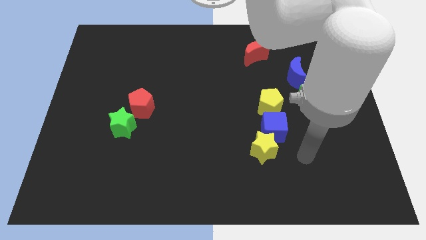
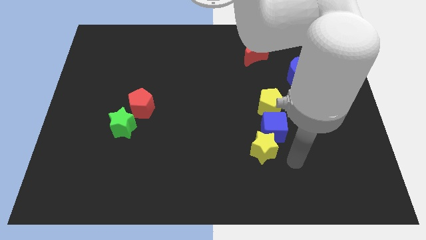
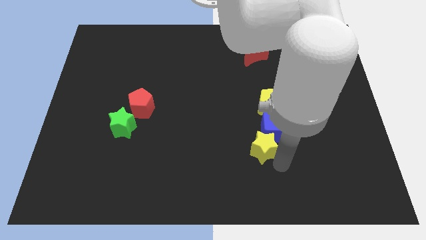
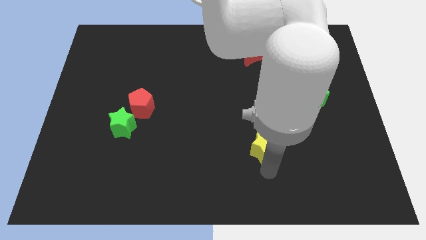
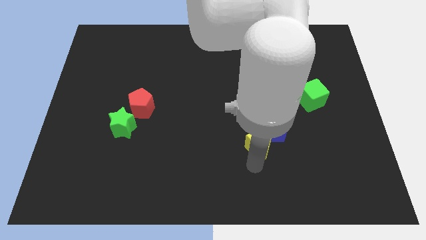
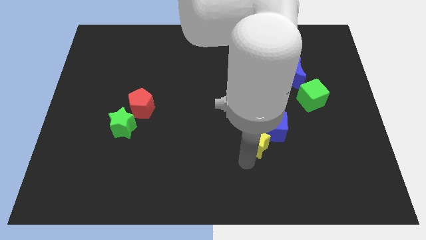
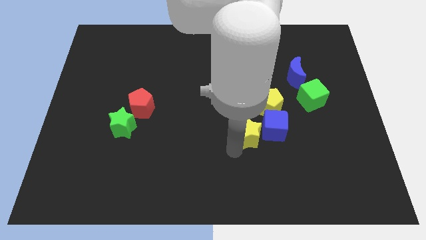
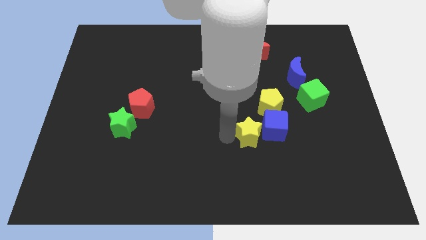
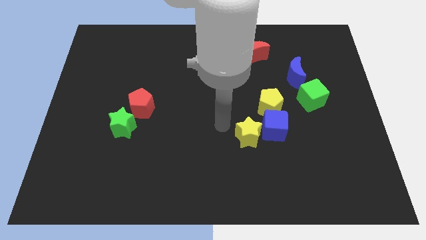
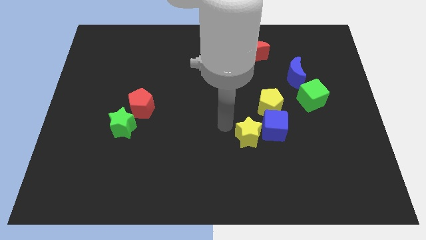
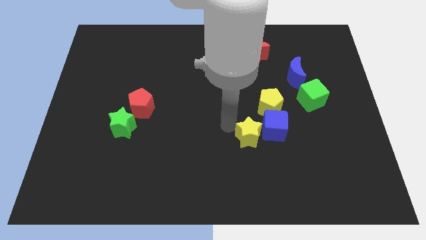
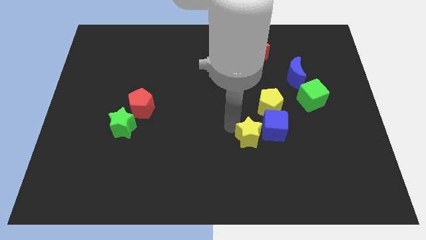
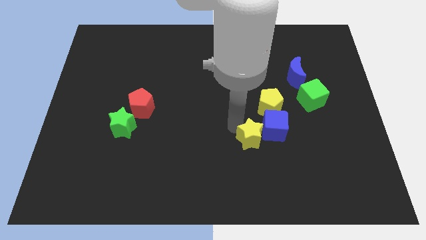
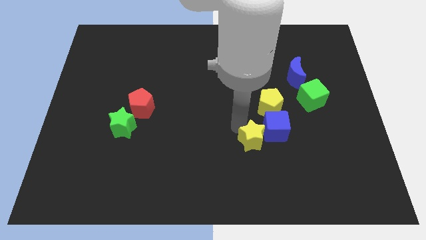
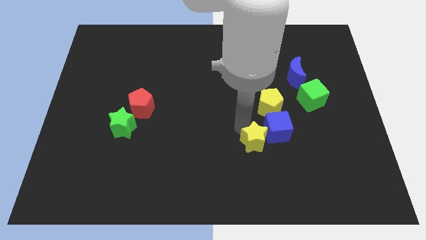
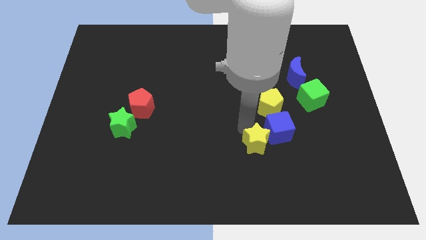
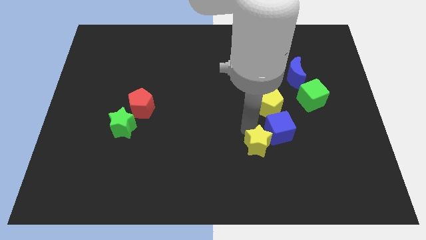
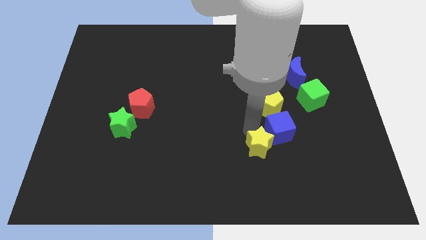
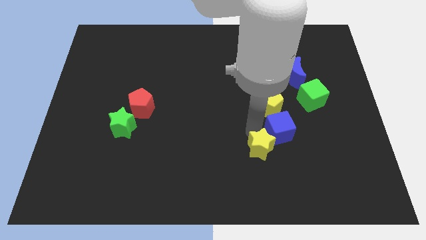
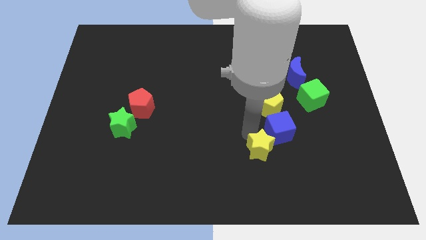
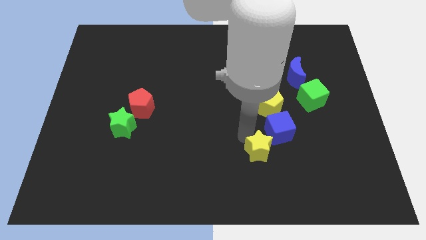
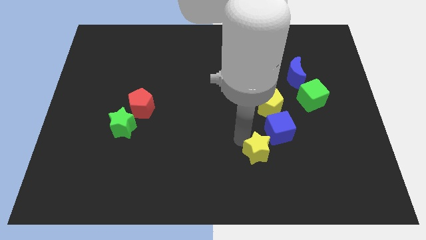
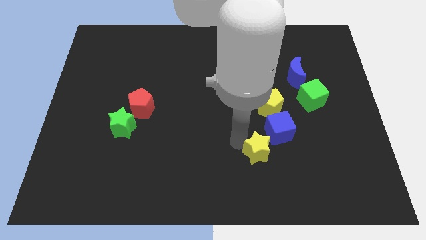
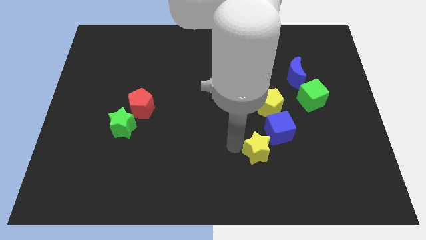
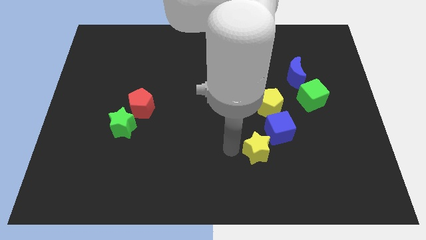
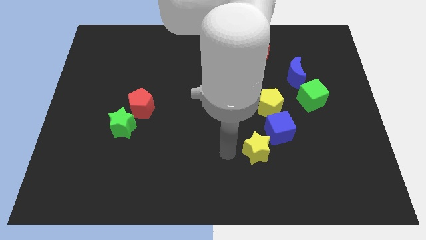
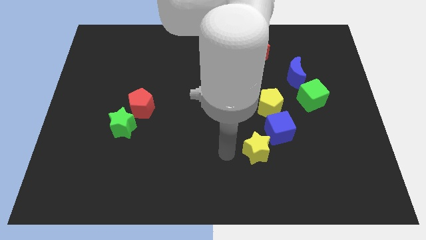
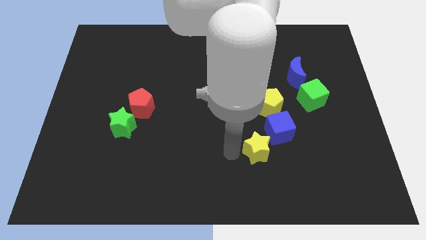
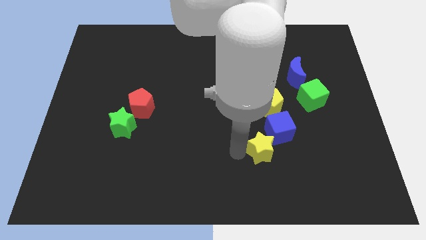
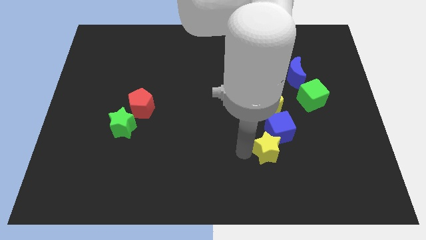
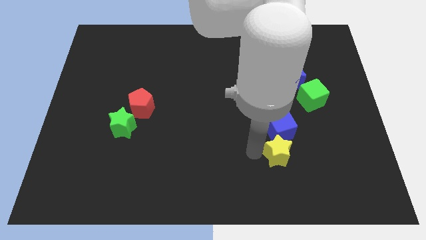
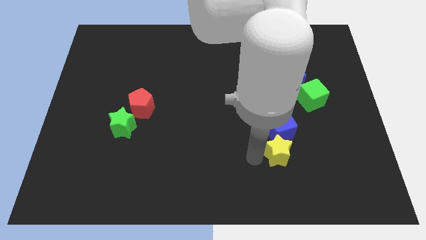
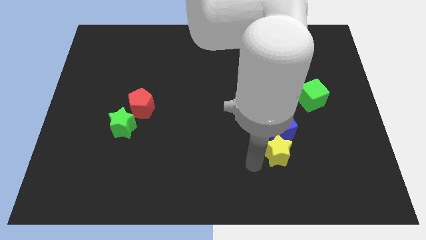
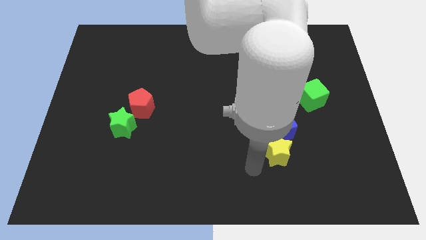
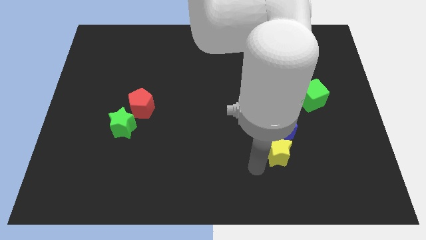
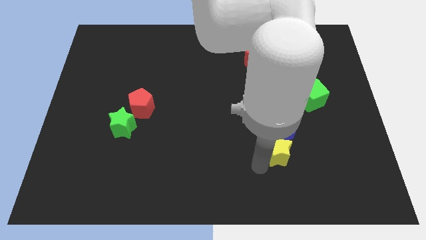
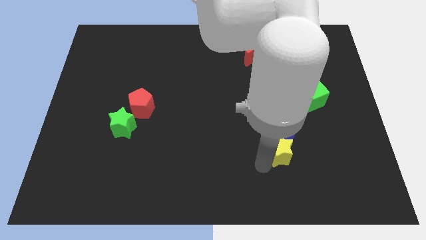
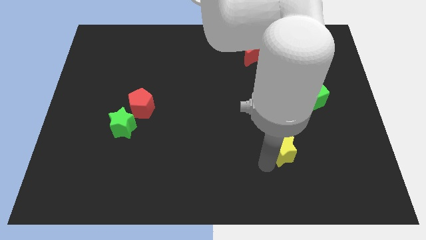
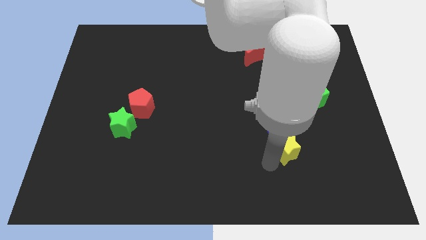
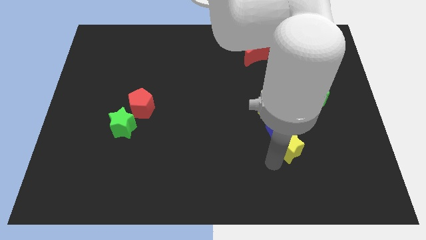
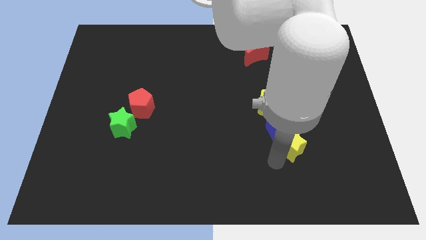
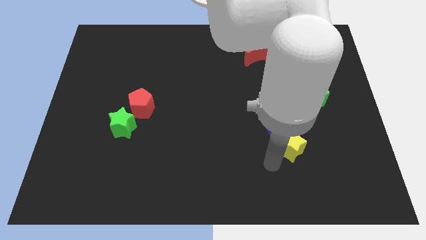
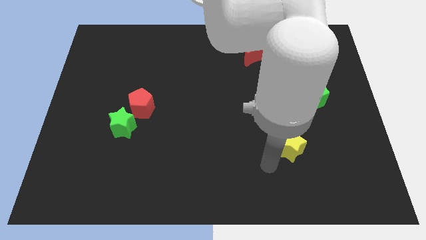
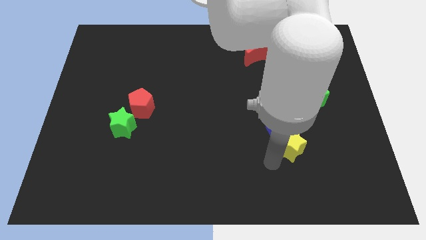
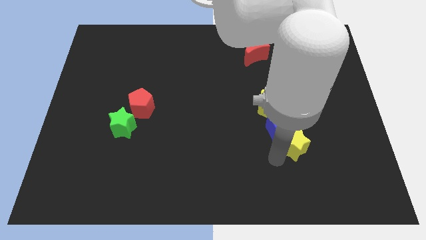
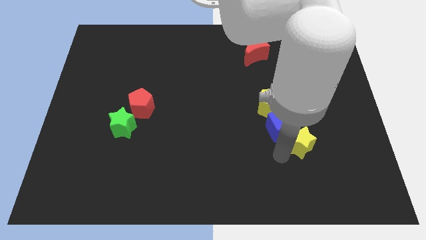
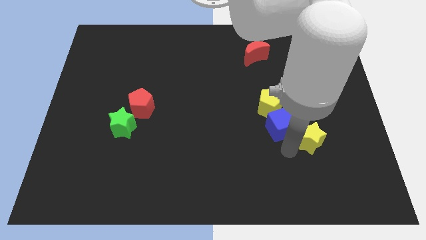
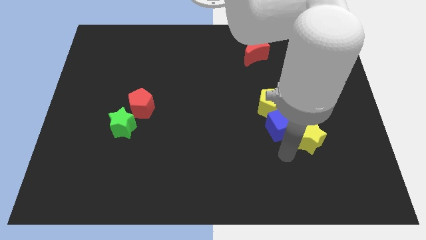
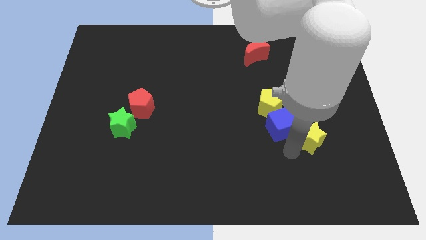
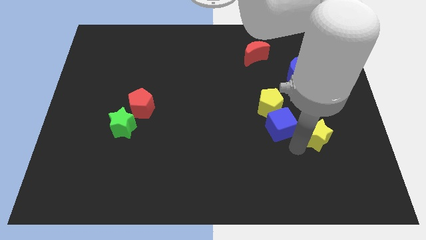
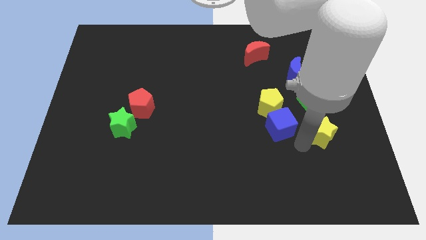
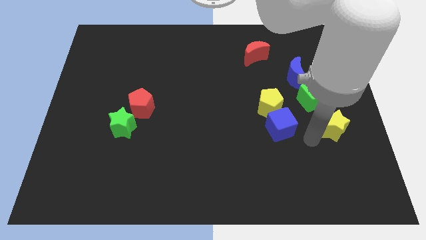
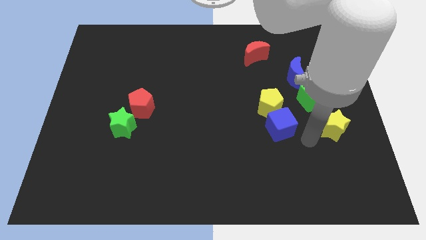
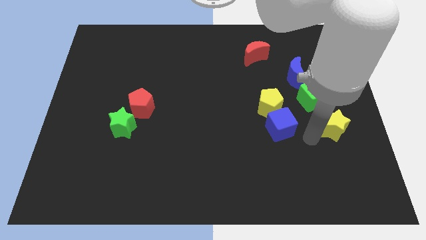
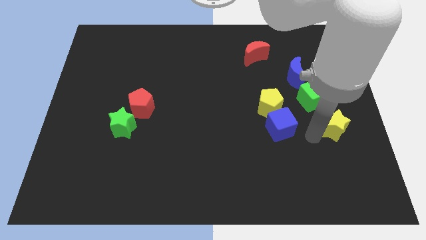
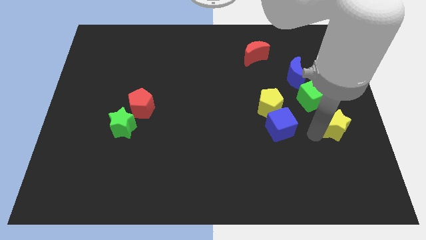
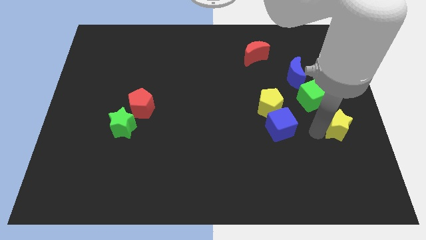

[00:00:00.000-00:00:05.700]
push the yellow star to the right side

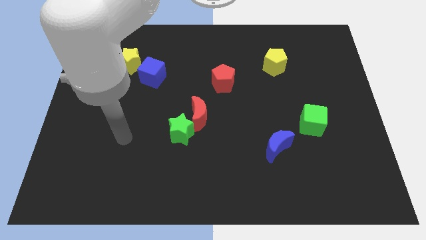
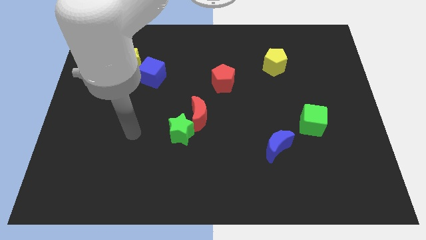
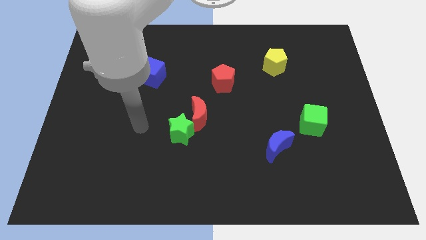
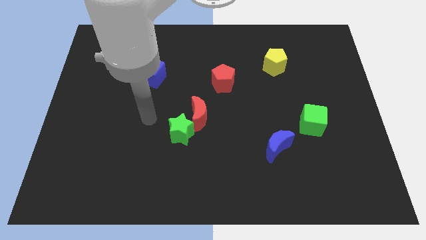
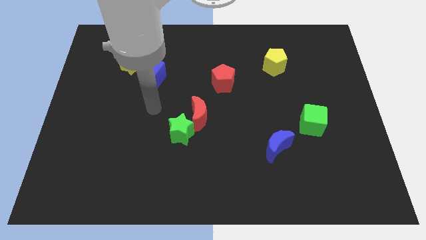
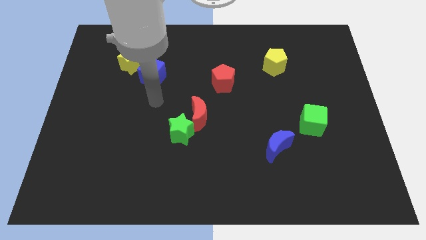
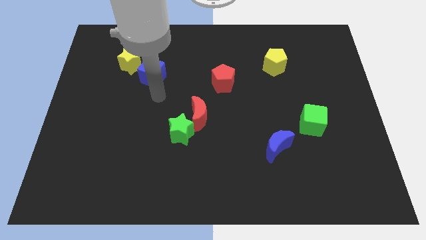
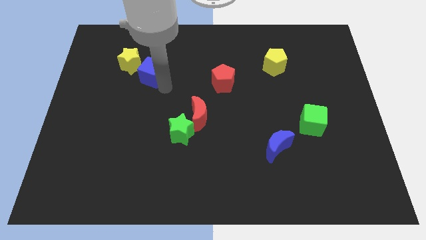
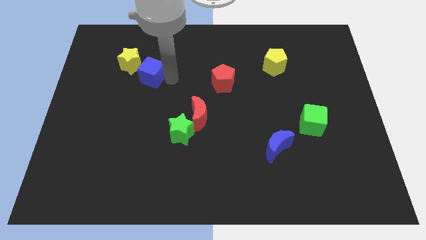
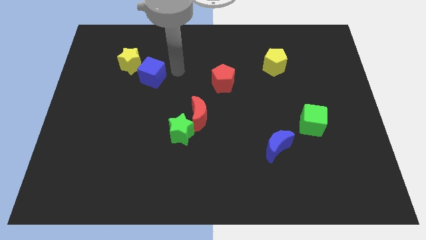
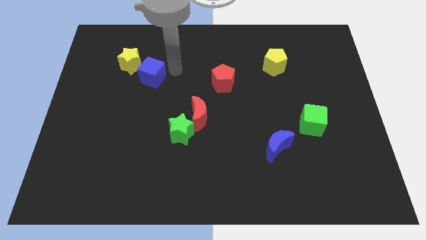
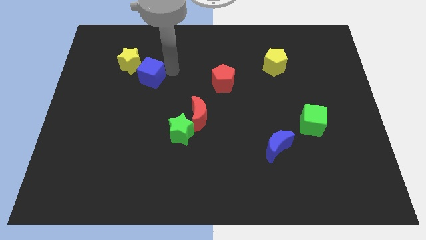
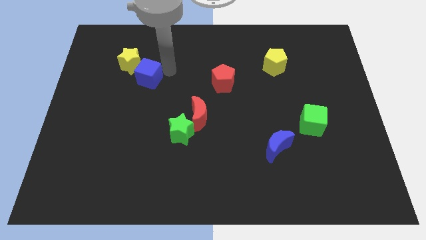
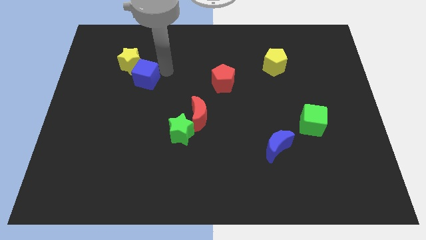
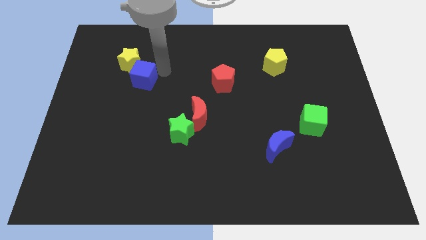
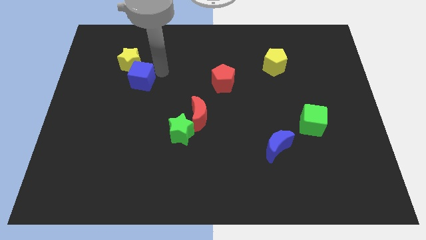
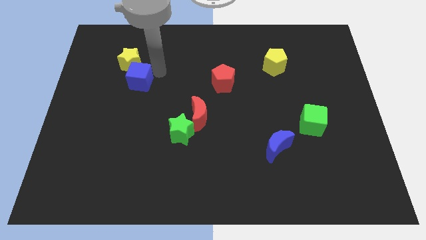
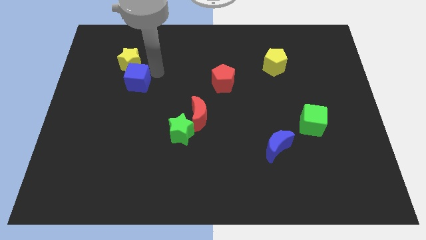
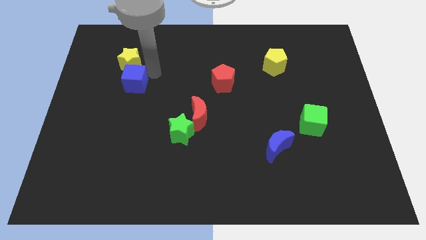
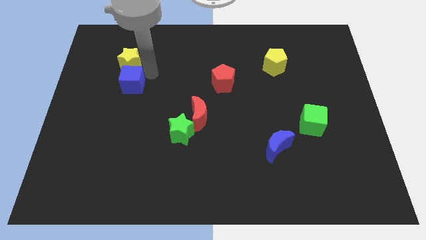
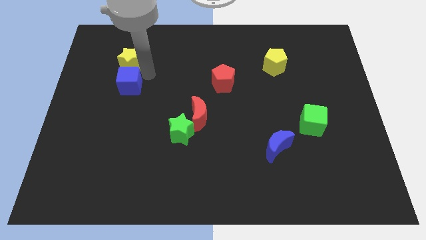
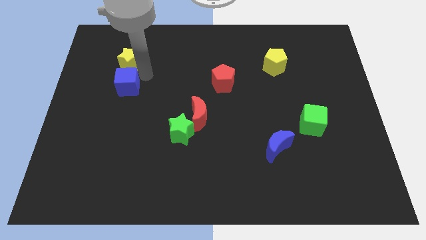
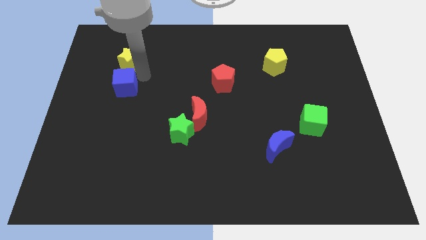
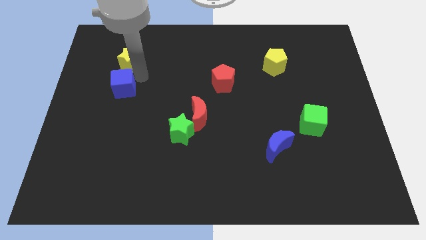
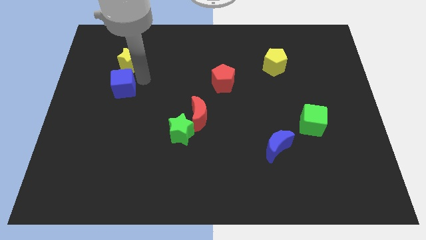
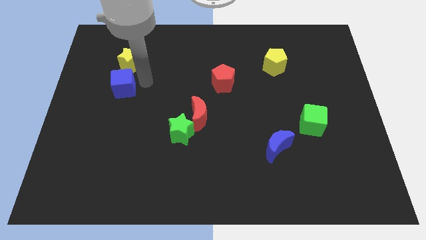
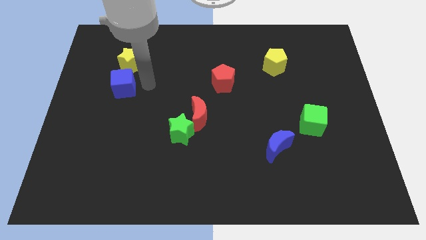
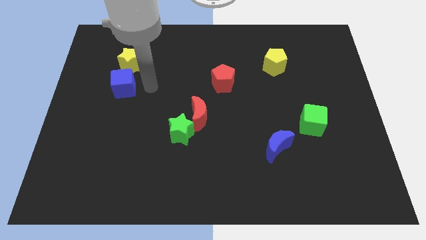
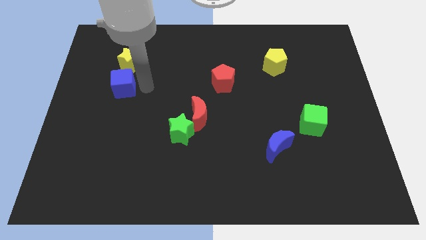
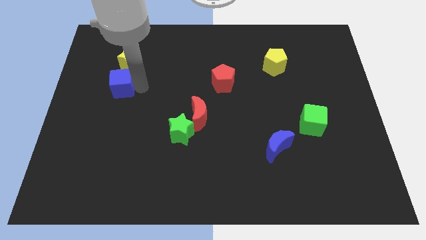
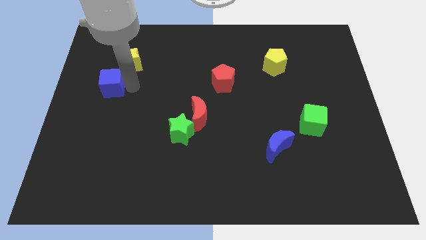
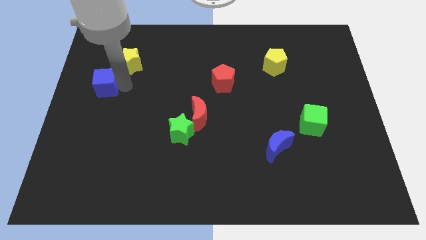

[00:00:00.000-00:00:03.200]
slide the blue cube to the left side of the board
